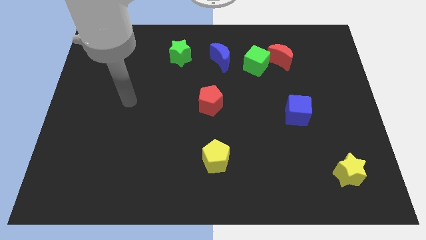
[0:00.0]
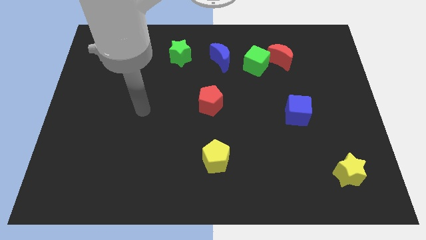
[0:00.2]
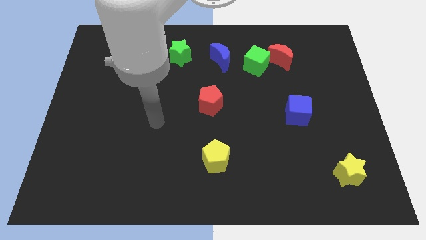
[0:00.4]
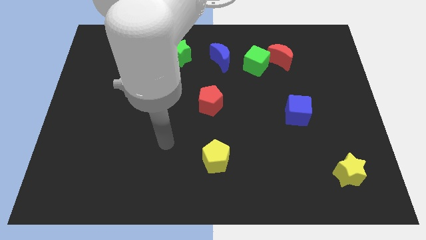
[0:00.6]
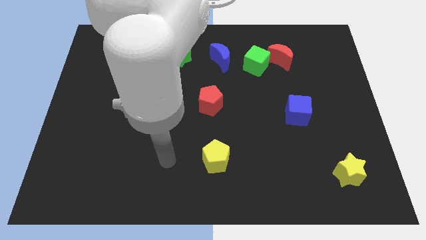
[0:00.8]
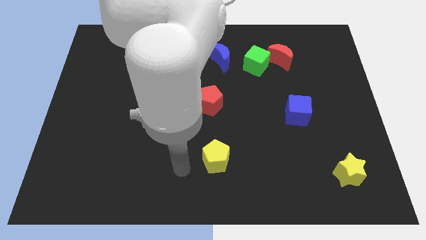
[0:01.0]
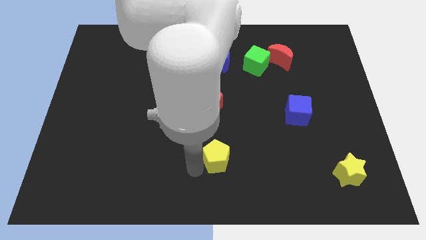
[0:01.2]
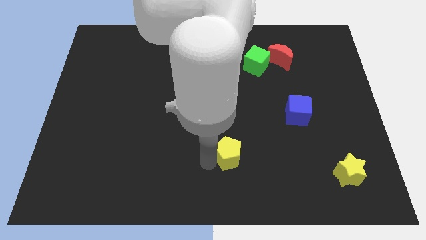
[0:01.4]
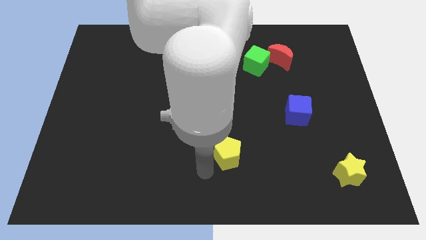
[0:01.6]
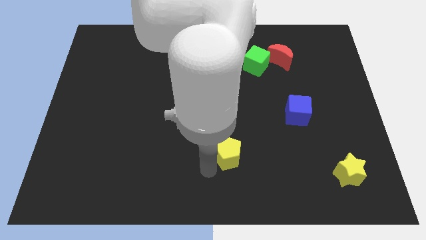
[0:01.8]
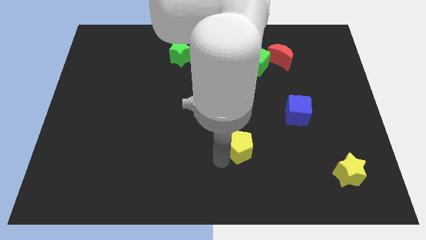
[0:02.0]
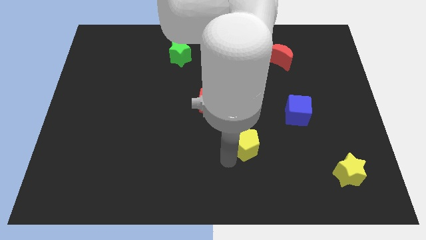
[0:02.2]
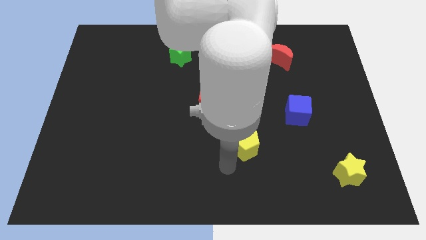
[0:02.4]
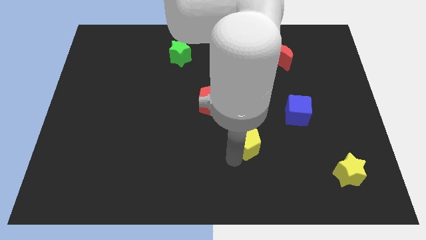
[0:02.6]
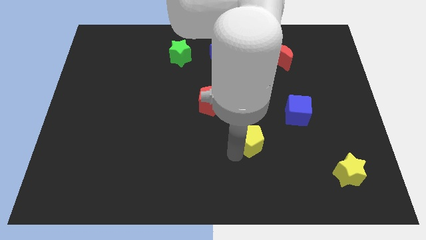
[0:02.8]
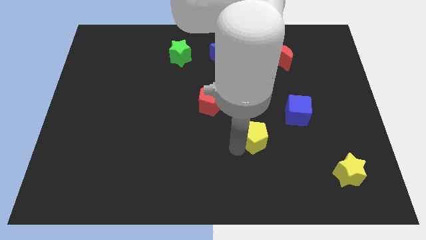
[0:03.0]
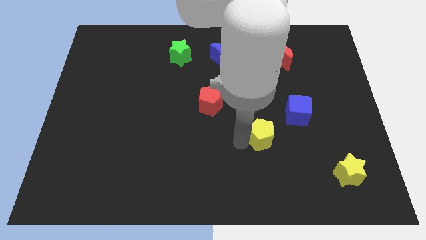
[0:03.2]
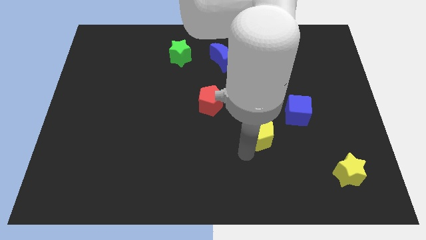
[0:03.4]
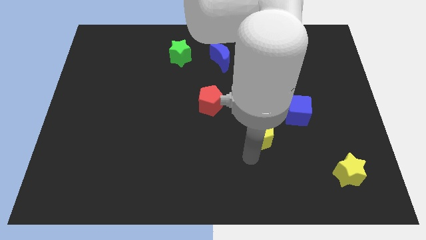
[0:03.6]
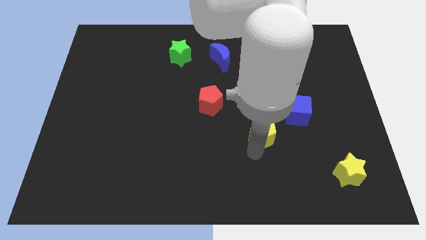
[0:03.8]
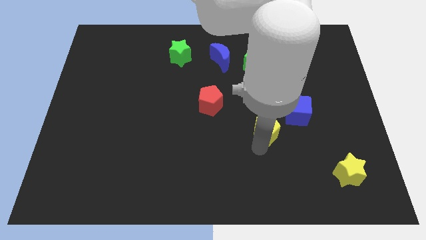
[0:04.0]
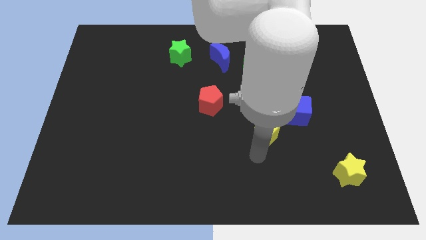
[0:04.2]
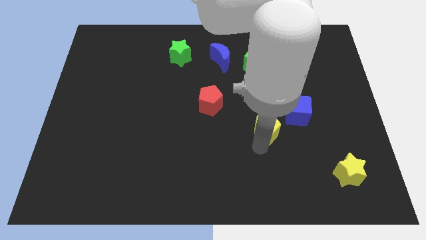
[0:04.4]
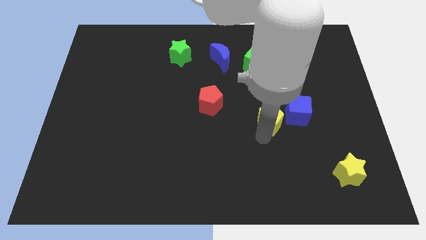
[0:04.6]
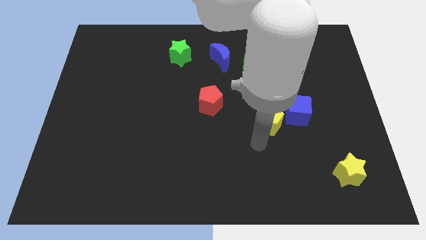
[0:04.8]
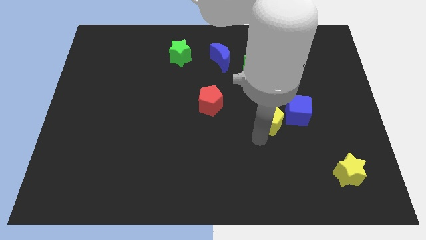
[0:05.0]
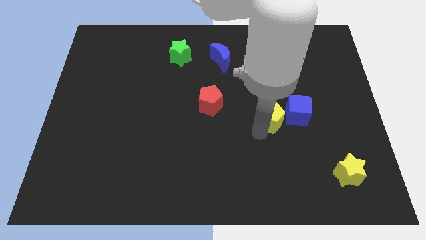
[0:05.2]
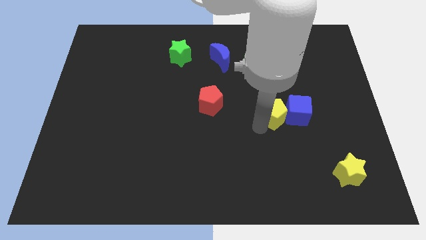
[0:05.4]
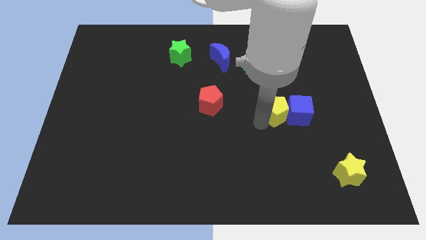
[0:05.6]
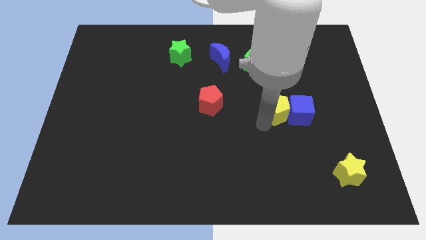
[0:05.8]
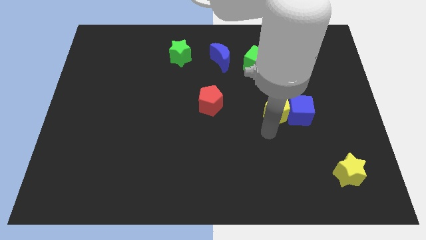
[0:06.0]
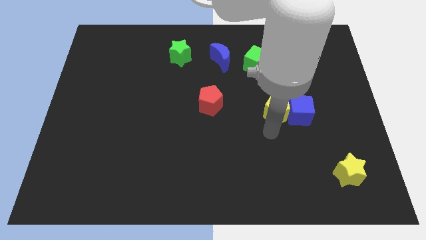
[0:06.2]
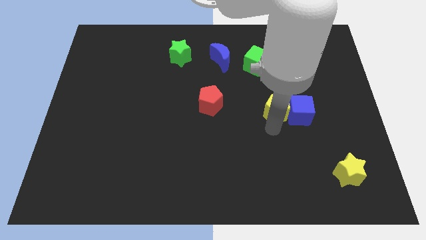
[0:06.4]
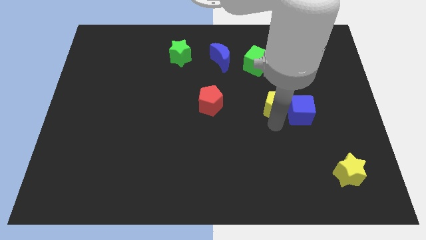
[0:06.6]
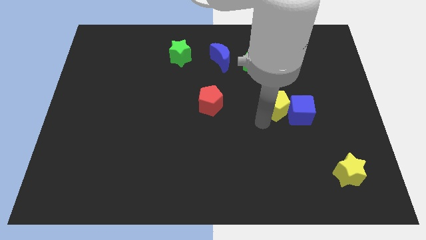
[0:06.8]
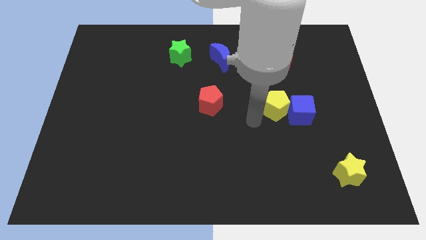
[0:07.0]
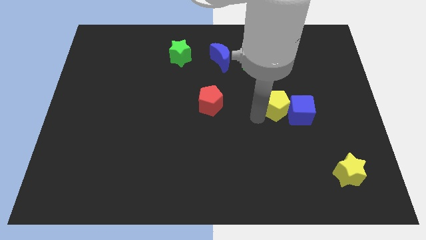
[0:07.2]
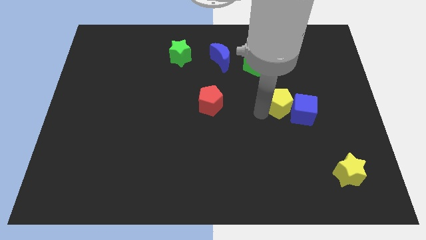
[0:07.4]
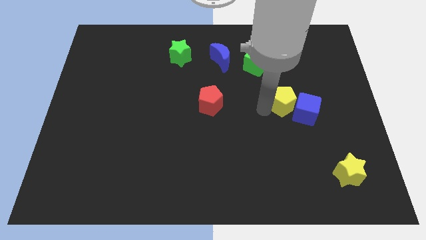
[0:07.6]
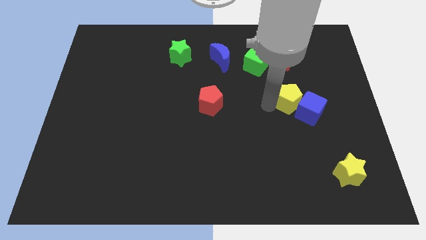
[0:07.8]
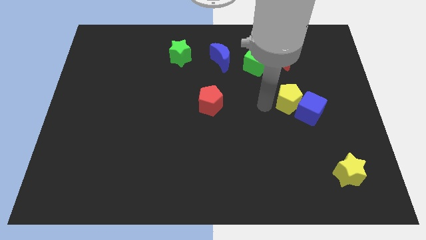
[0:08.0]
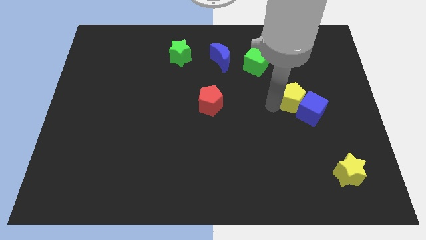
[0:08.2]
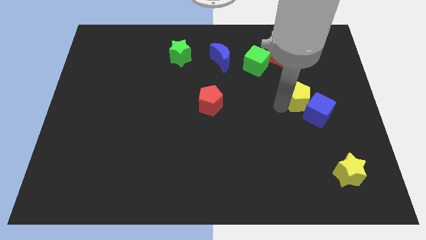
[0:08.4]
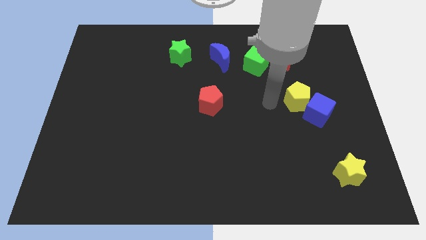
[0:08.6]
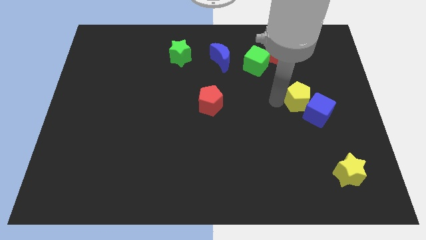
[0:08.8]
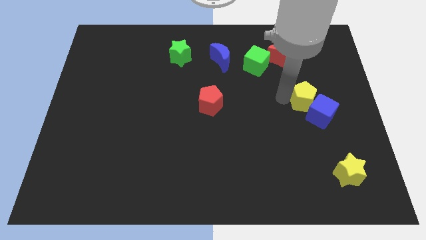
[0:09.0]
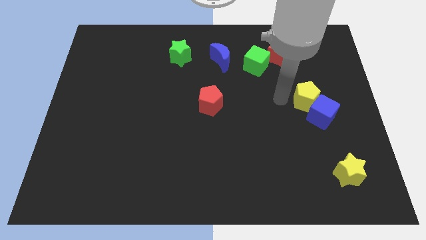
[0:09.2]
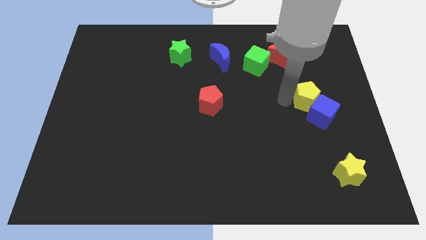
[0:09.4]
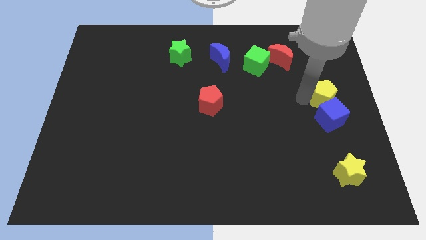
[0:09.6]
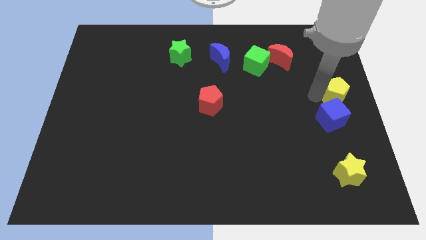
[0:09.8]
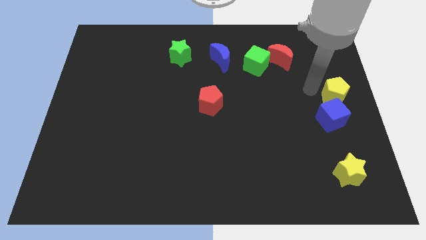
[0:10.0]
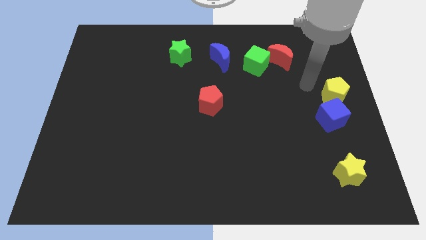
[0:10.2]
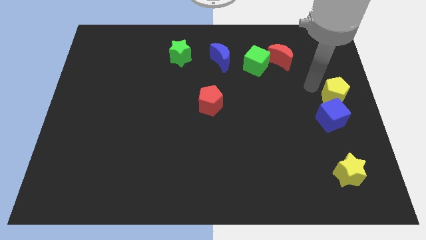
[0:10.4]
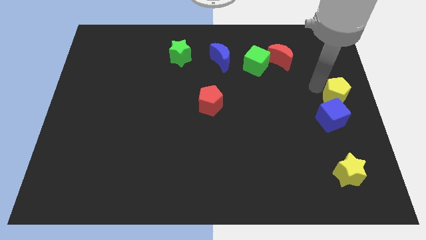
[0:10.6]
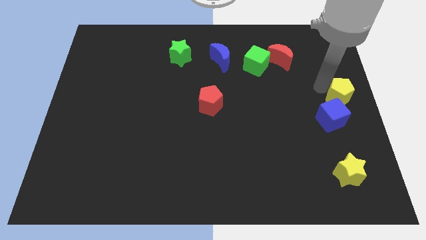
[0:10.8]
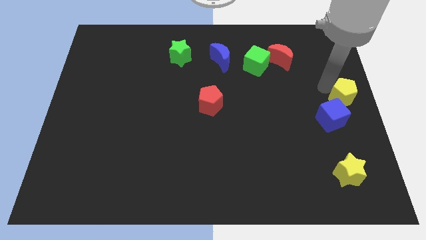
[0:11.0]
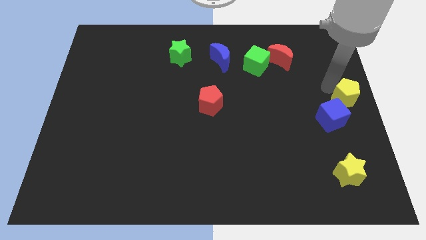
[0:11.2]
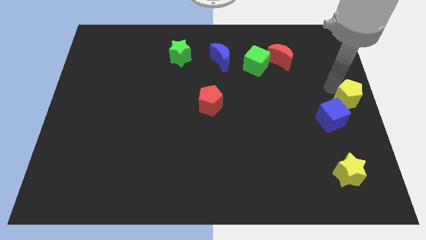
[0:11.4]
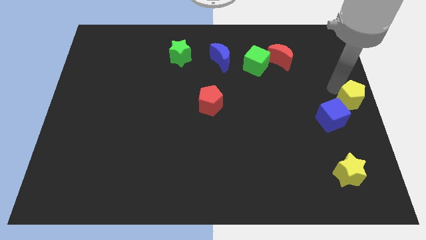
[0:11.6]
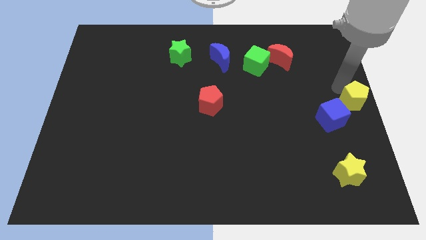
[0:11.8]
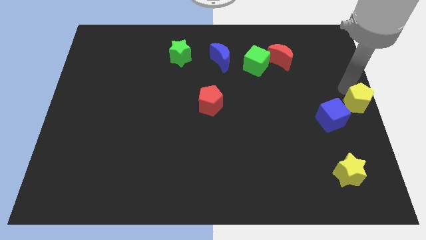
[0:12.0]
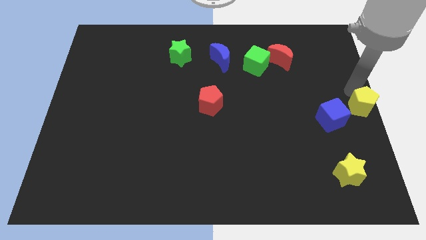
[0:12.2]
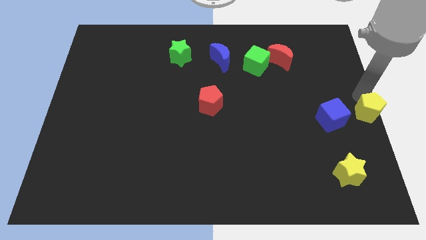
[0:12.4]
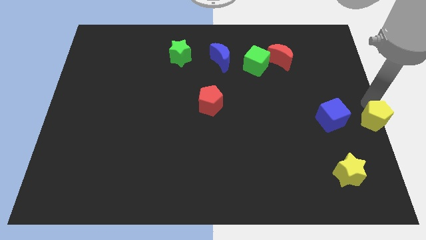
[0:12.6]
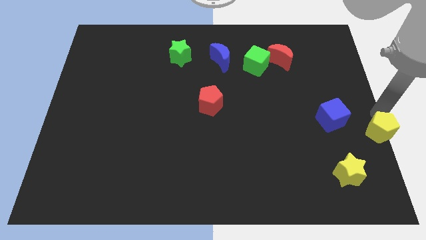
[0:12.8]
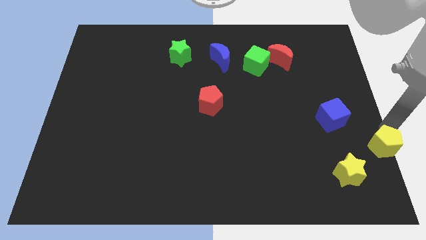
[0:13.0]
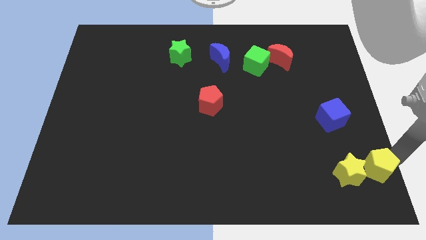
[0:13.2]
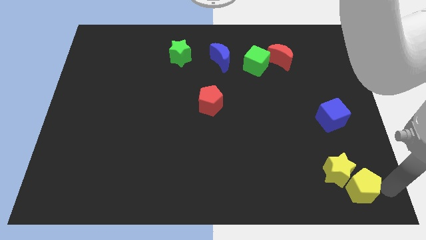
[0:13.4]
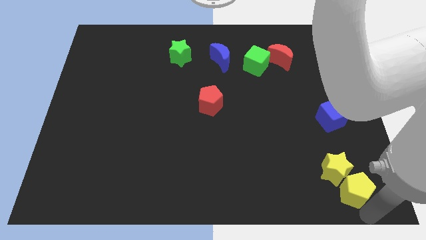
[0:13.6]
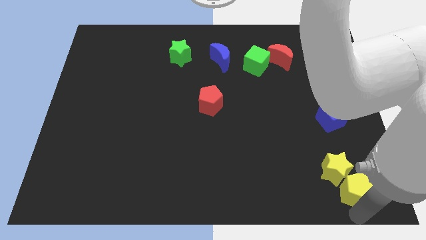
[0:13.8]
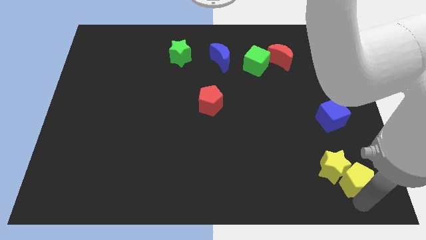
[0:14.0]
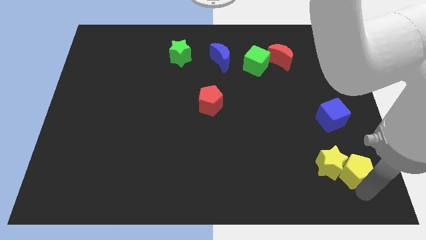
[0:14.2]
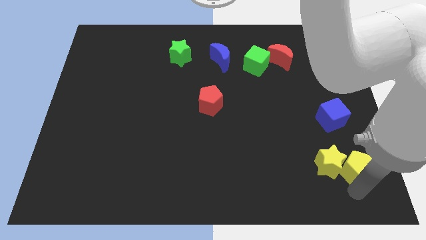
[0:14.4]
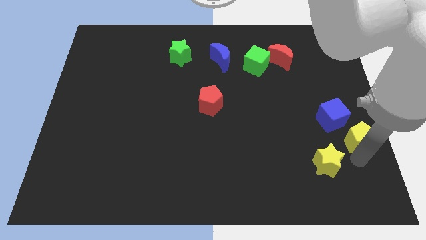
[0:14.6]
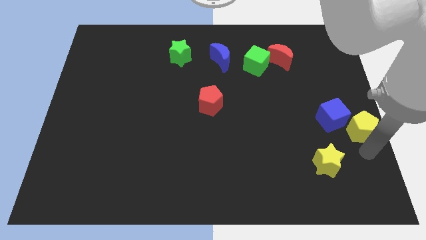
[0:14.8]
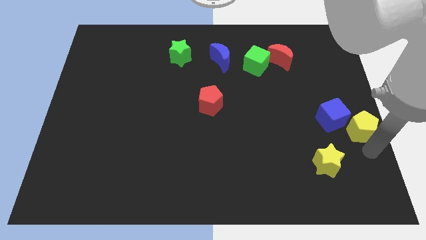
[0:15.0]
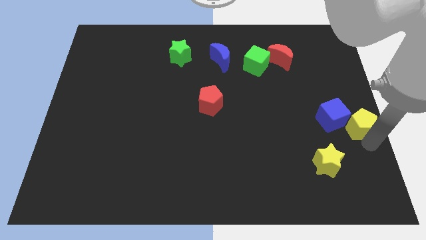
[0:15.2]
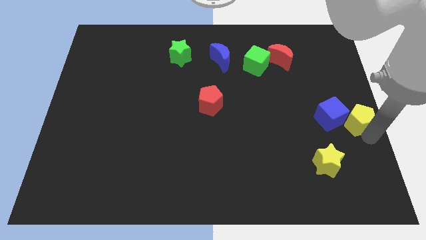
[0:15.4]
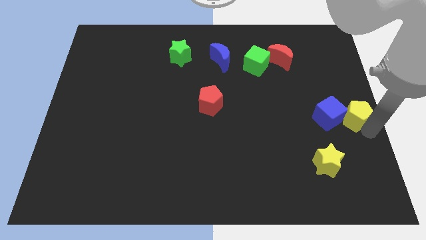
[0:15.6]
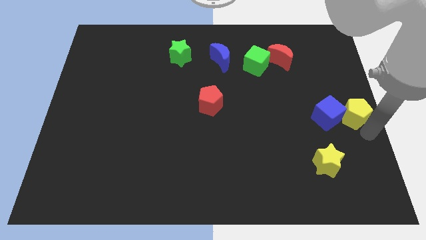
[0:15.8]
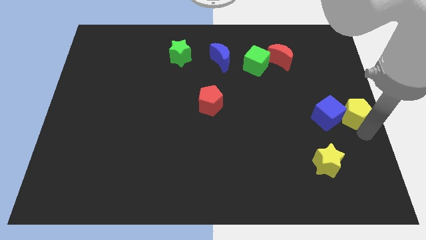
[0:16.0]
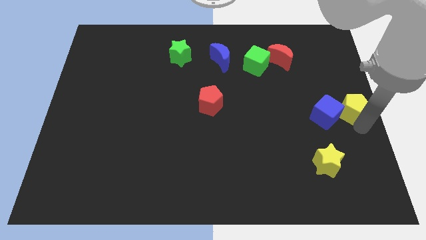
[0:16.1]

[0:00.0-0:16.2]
put the yellow pentagon to the top right side of the blue cube
